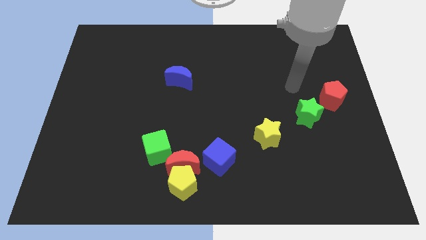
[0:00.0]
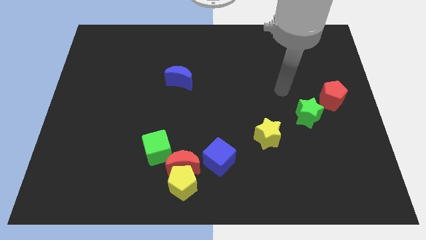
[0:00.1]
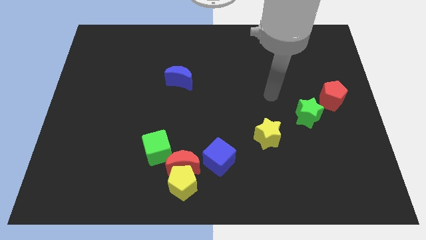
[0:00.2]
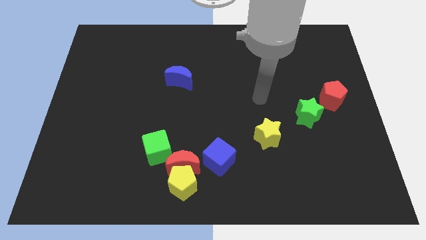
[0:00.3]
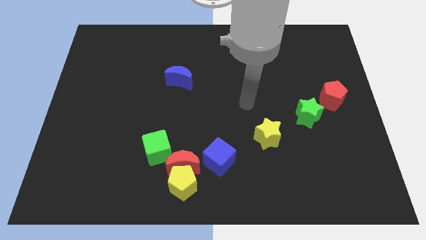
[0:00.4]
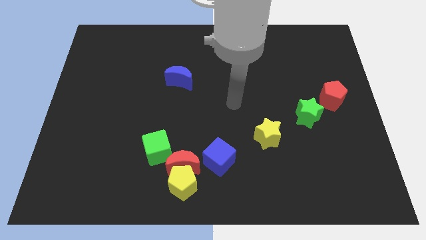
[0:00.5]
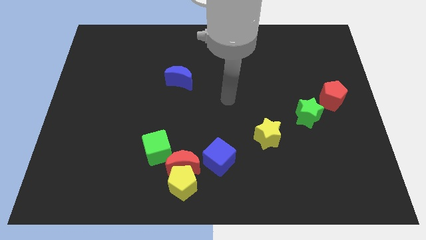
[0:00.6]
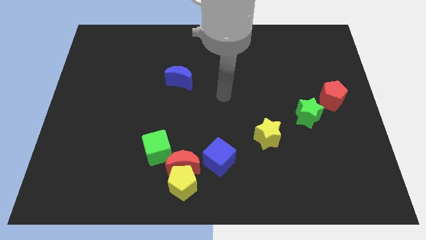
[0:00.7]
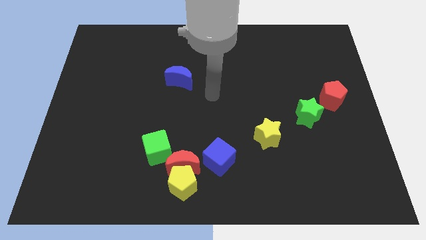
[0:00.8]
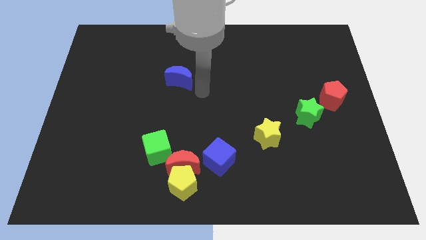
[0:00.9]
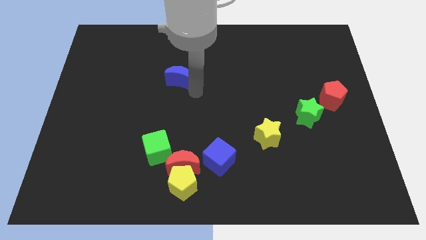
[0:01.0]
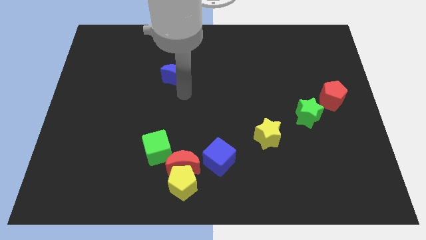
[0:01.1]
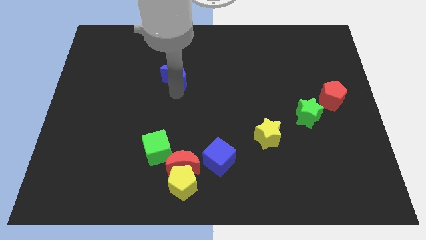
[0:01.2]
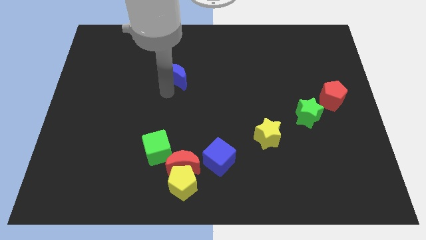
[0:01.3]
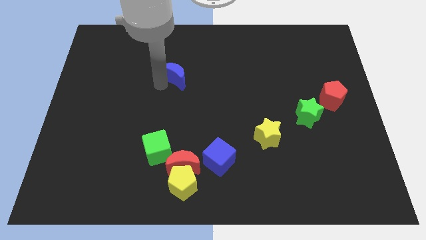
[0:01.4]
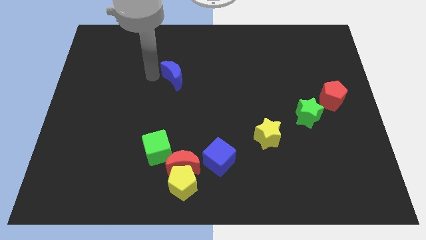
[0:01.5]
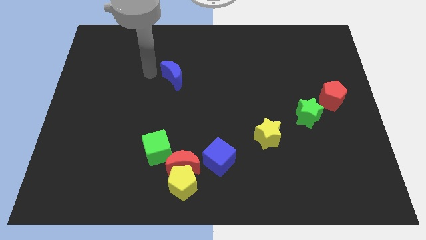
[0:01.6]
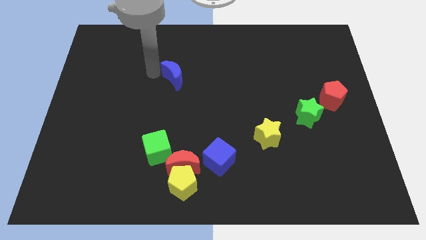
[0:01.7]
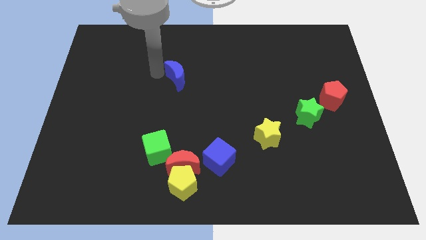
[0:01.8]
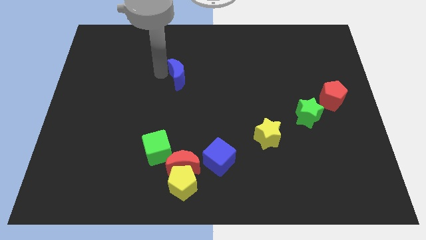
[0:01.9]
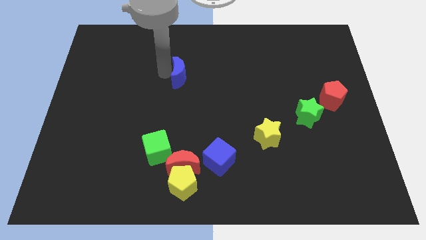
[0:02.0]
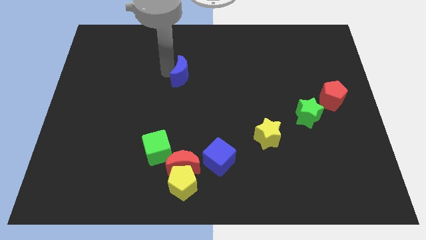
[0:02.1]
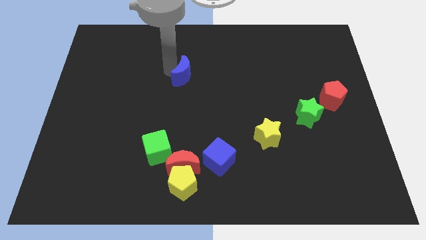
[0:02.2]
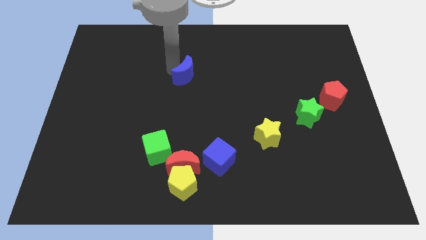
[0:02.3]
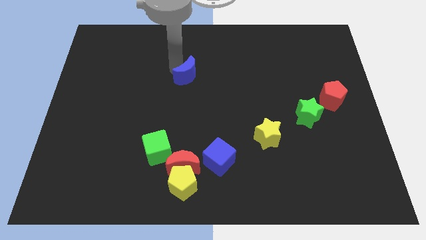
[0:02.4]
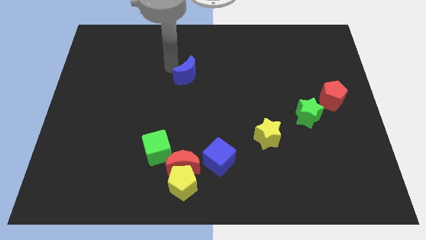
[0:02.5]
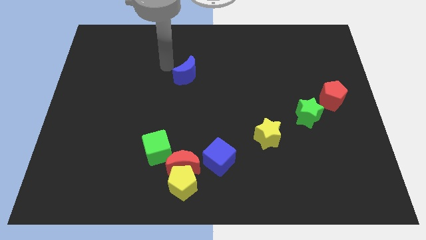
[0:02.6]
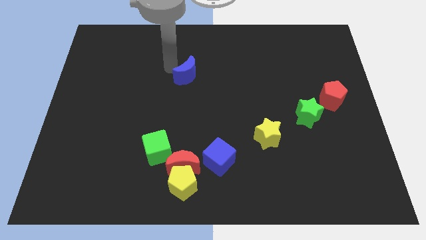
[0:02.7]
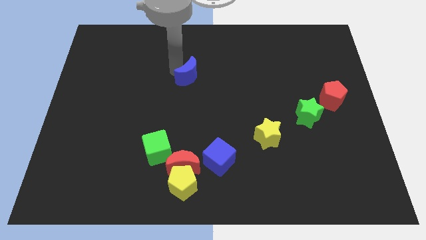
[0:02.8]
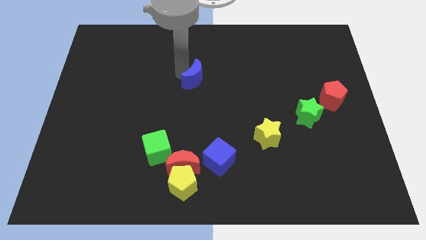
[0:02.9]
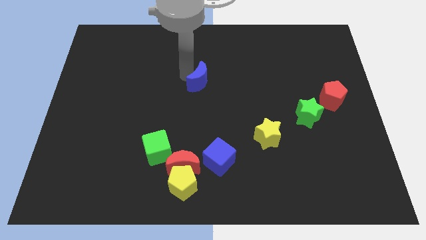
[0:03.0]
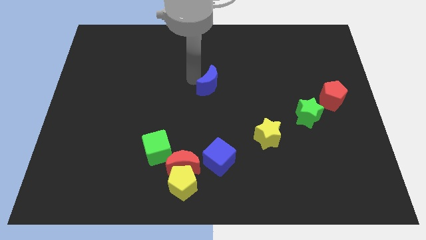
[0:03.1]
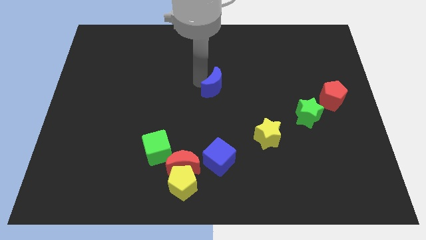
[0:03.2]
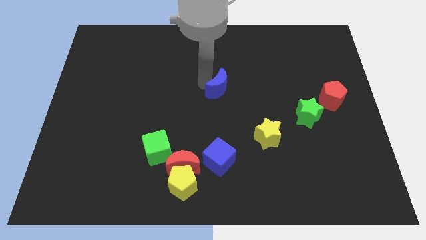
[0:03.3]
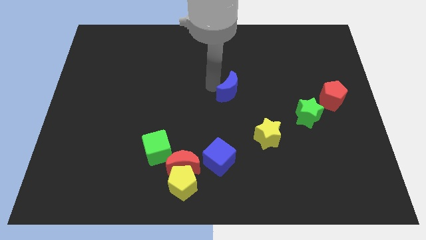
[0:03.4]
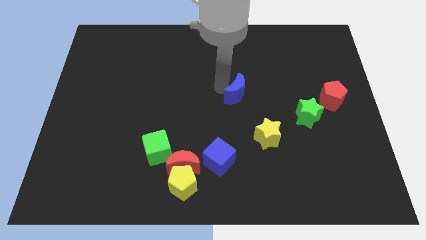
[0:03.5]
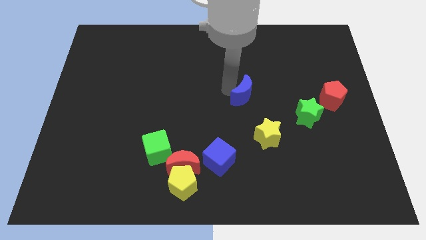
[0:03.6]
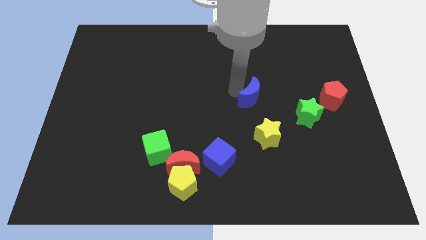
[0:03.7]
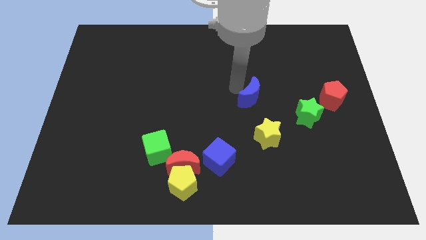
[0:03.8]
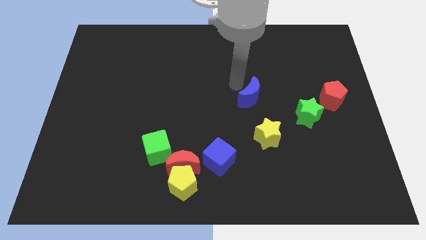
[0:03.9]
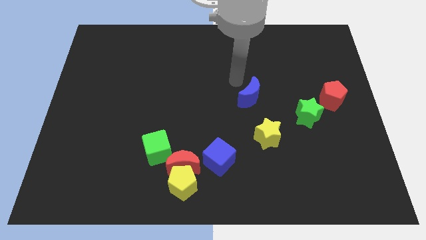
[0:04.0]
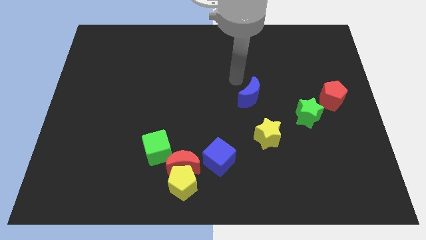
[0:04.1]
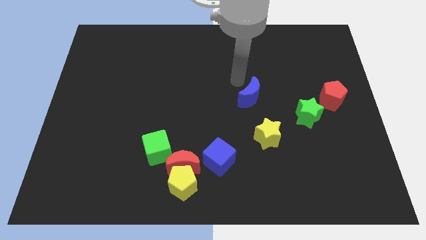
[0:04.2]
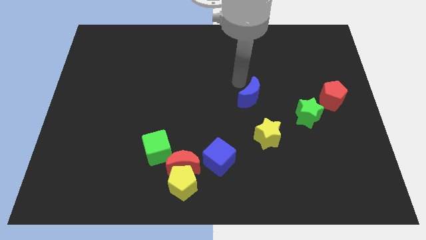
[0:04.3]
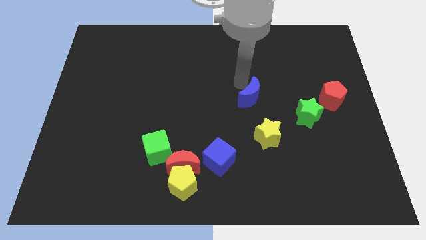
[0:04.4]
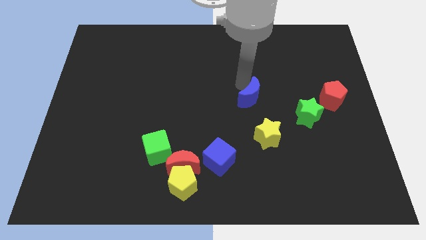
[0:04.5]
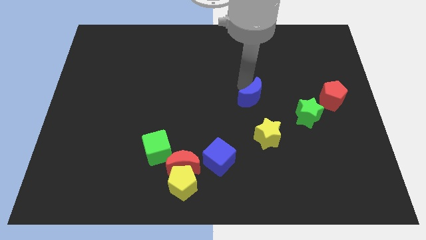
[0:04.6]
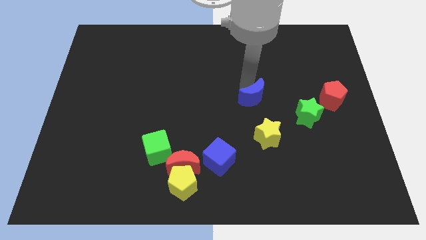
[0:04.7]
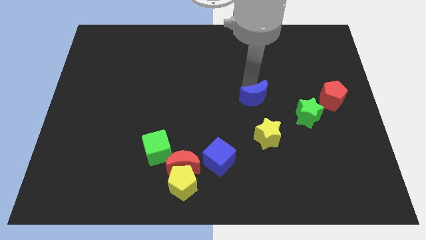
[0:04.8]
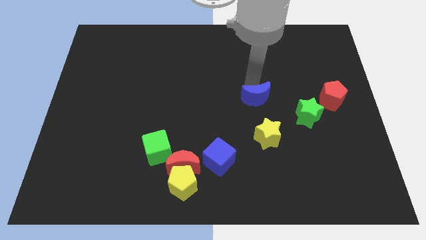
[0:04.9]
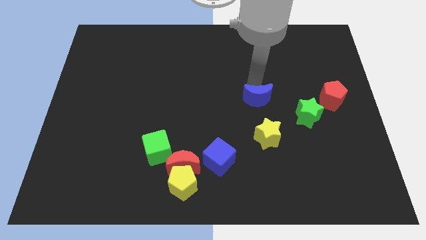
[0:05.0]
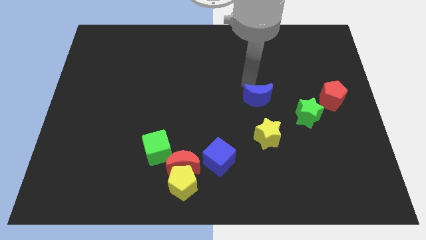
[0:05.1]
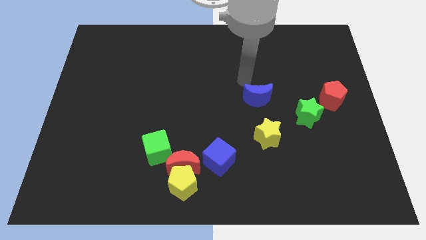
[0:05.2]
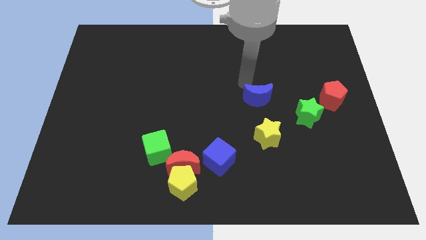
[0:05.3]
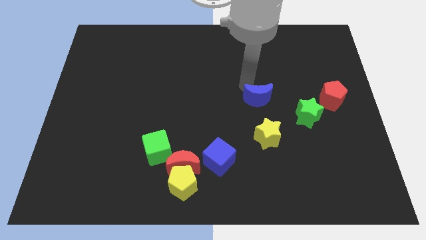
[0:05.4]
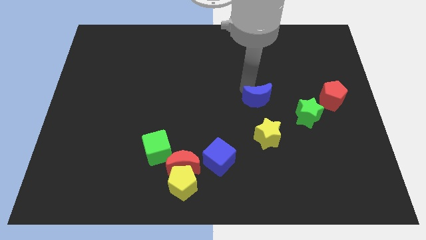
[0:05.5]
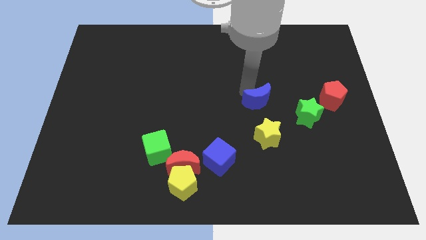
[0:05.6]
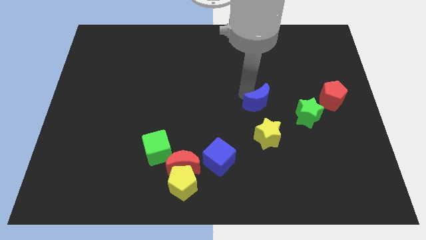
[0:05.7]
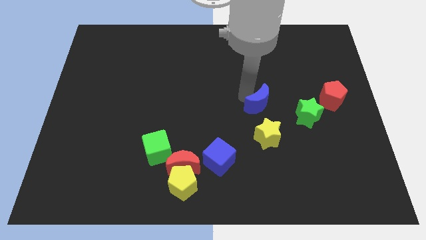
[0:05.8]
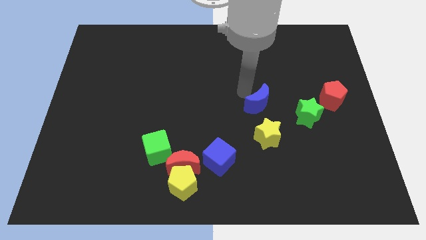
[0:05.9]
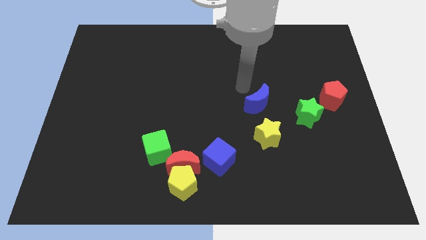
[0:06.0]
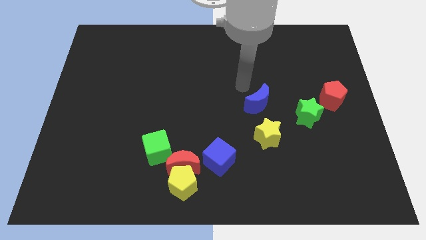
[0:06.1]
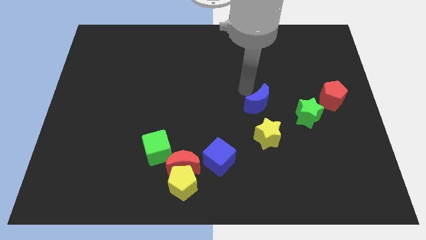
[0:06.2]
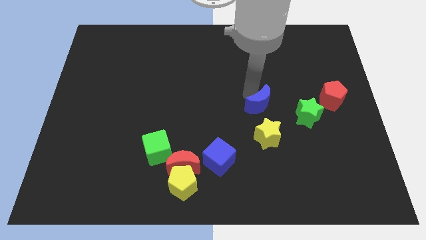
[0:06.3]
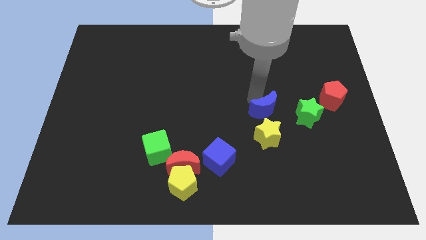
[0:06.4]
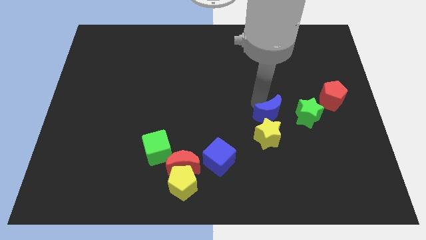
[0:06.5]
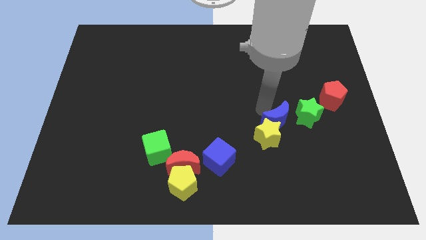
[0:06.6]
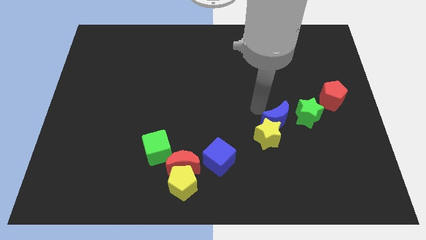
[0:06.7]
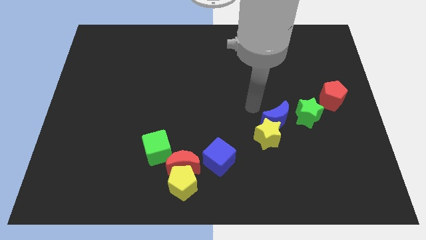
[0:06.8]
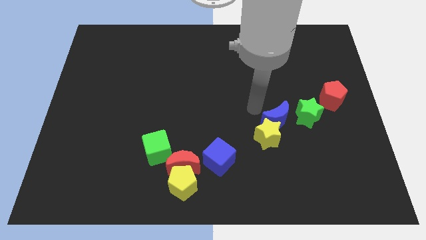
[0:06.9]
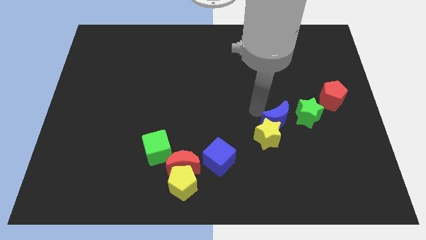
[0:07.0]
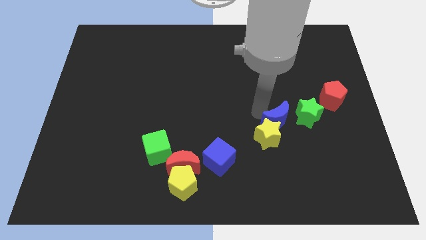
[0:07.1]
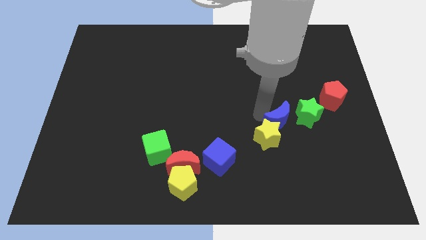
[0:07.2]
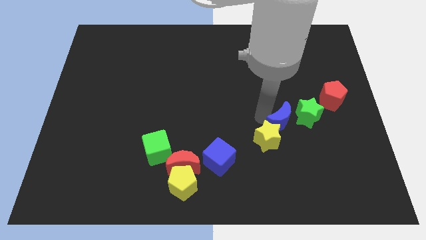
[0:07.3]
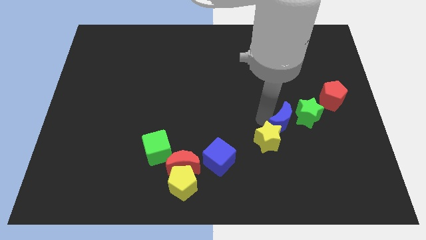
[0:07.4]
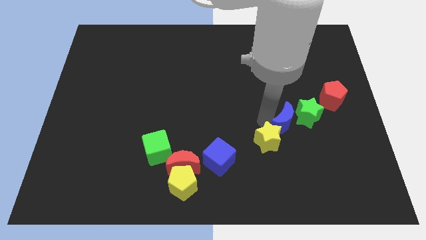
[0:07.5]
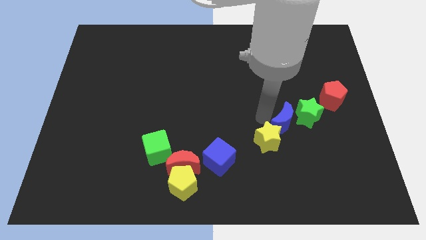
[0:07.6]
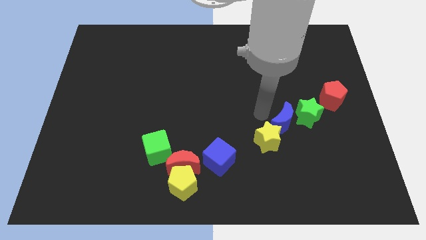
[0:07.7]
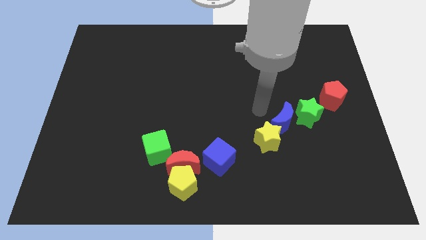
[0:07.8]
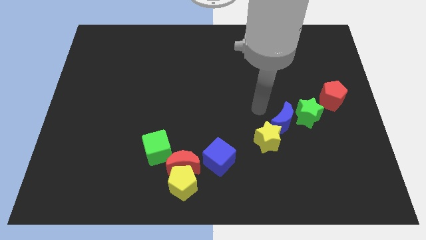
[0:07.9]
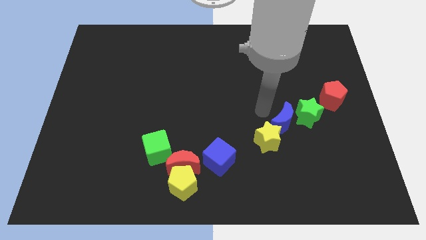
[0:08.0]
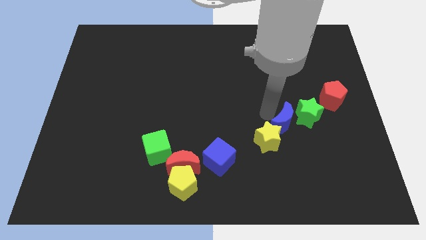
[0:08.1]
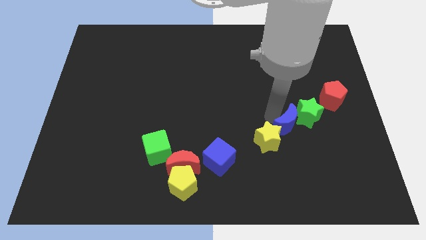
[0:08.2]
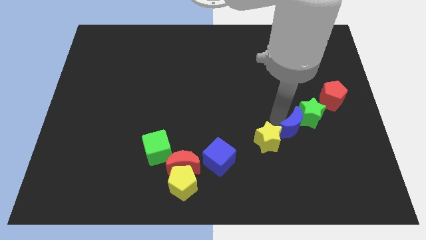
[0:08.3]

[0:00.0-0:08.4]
slide the blue moon below the green star
